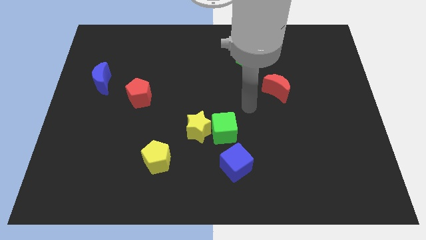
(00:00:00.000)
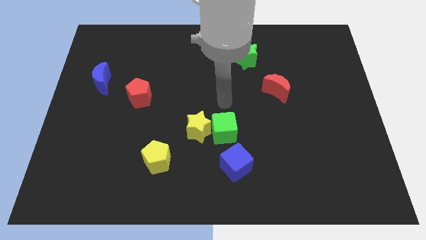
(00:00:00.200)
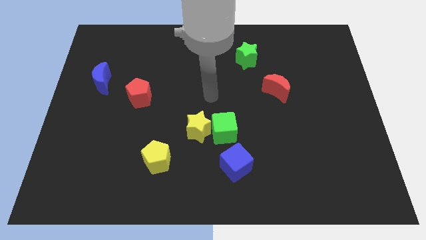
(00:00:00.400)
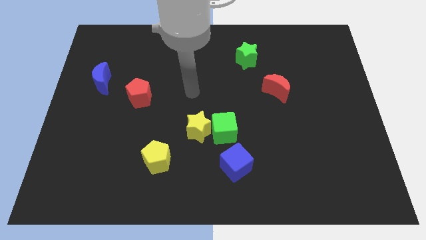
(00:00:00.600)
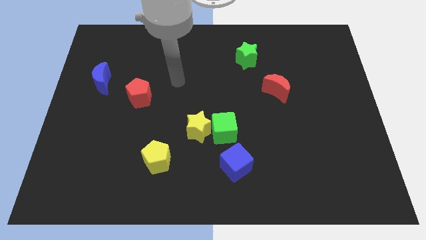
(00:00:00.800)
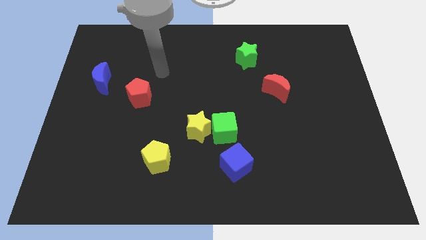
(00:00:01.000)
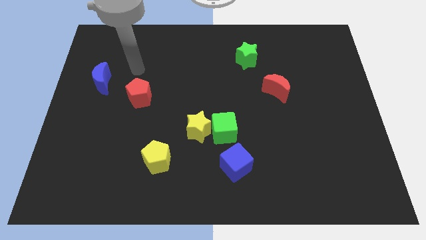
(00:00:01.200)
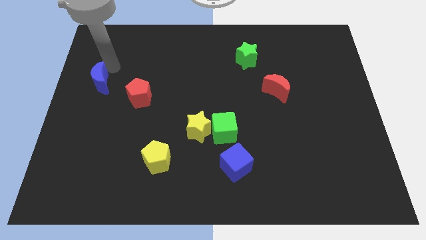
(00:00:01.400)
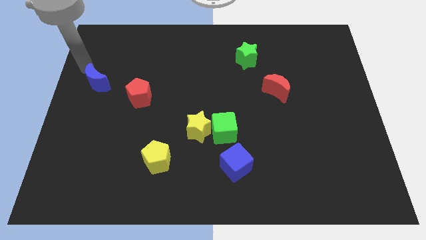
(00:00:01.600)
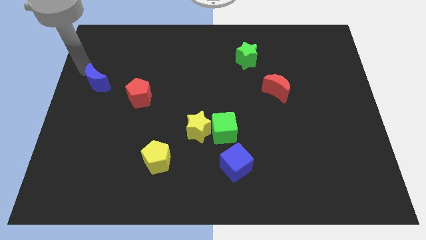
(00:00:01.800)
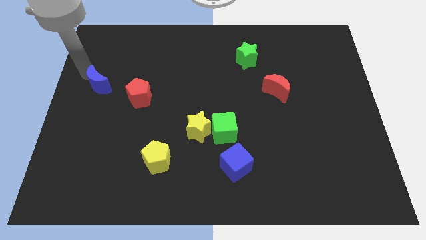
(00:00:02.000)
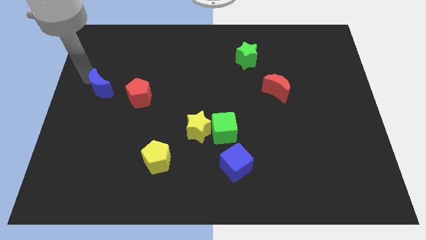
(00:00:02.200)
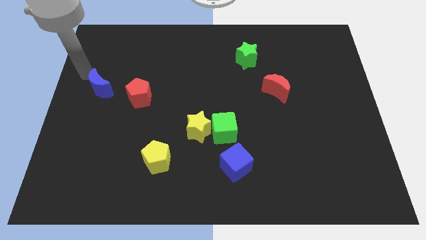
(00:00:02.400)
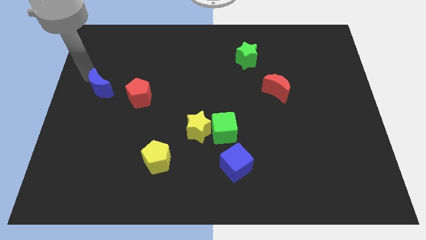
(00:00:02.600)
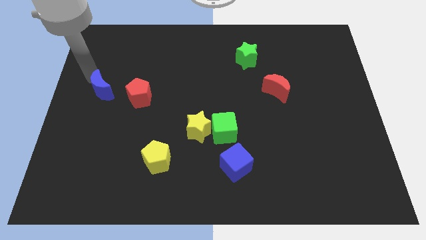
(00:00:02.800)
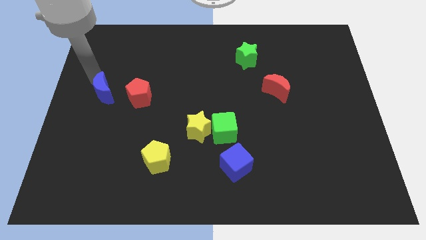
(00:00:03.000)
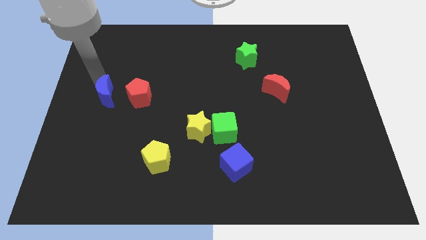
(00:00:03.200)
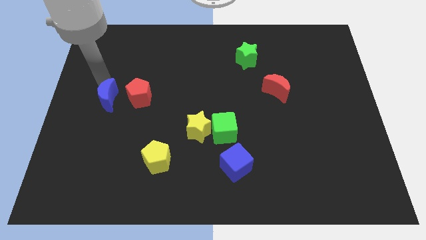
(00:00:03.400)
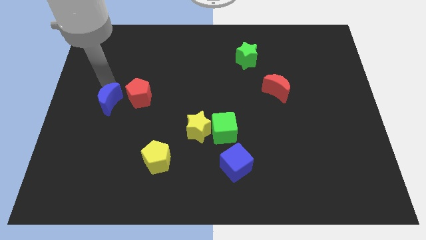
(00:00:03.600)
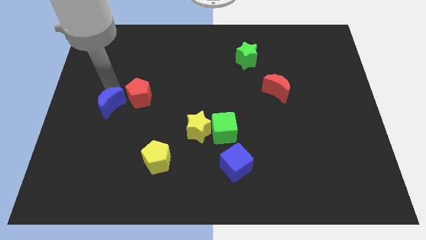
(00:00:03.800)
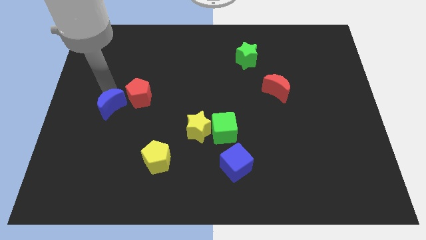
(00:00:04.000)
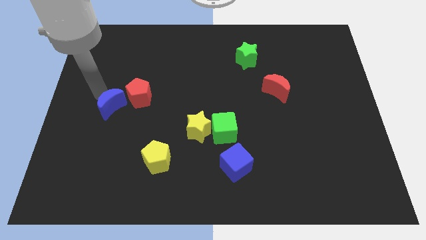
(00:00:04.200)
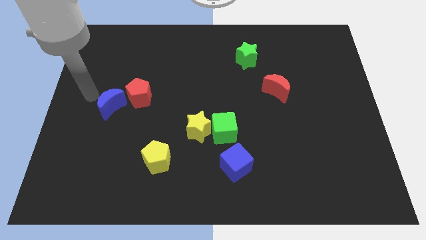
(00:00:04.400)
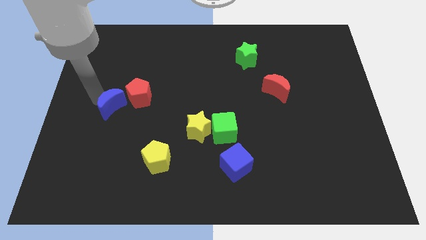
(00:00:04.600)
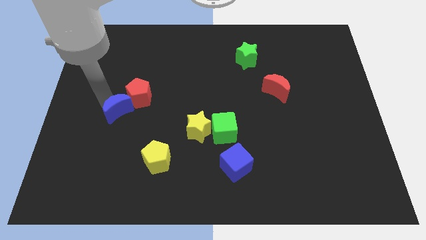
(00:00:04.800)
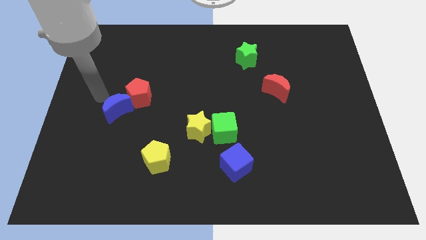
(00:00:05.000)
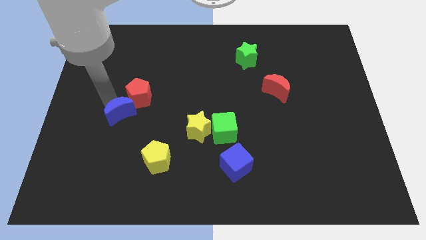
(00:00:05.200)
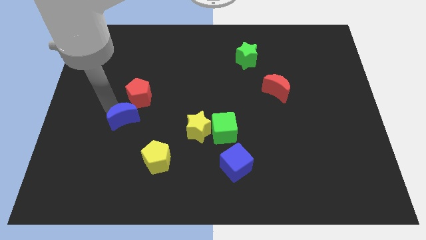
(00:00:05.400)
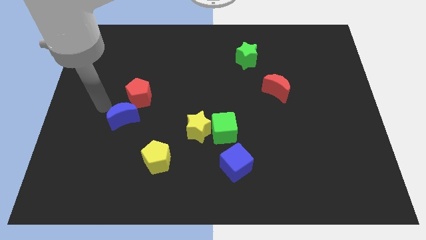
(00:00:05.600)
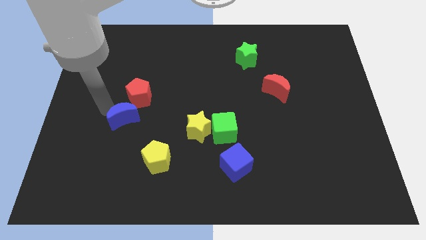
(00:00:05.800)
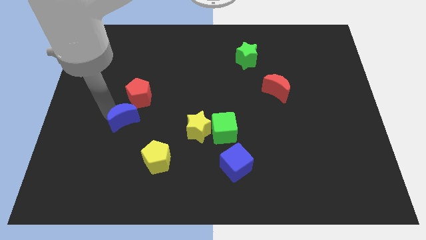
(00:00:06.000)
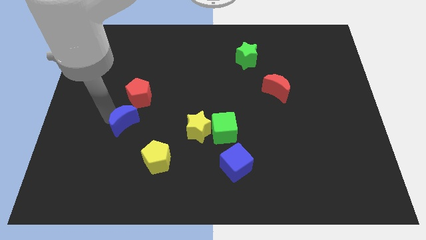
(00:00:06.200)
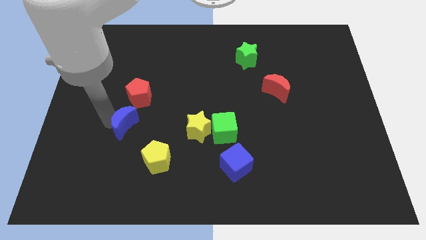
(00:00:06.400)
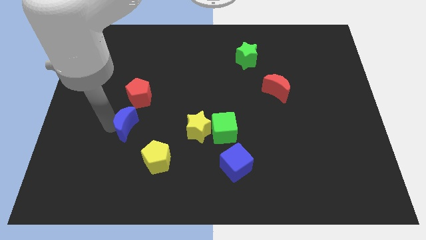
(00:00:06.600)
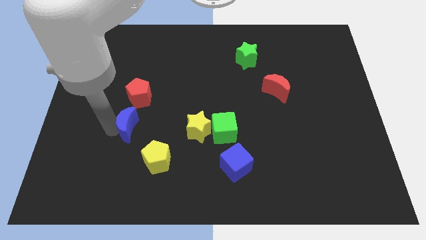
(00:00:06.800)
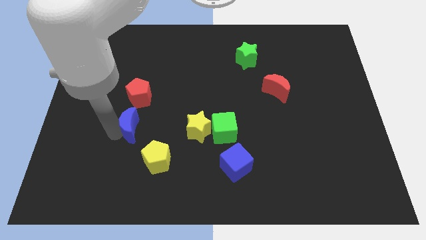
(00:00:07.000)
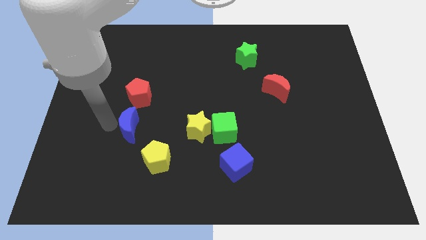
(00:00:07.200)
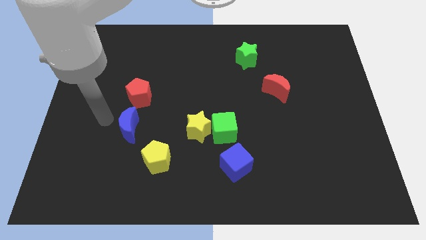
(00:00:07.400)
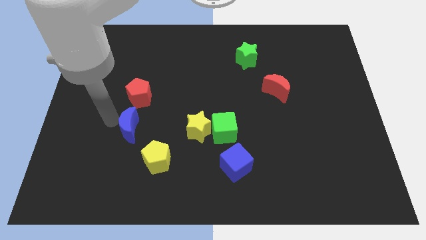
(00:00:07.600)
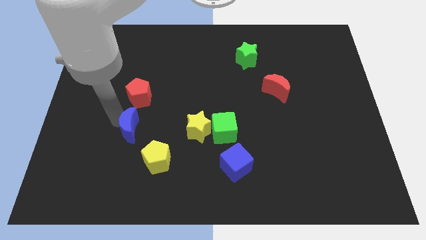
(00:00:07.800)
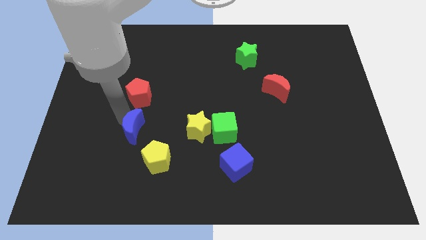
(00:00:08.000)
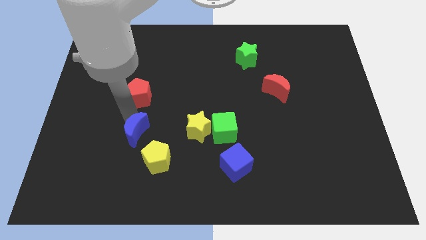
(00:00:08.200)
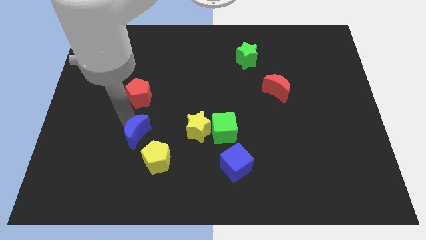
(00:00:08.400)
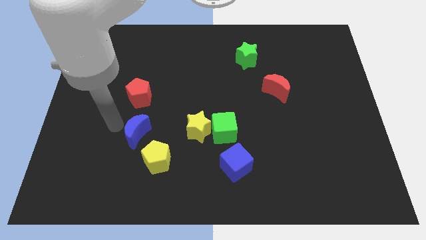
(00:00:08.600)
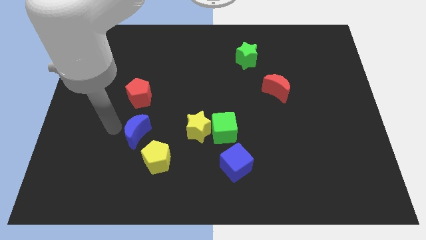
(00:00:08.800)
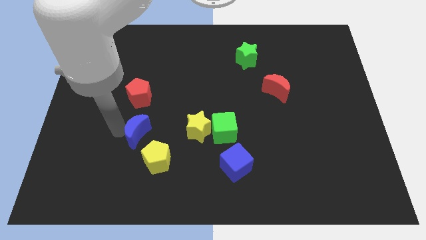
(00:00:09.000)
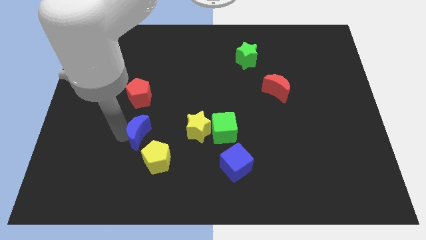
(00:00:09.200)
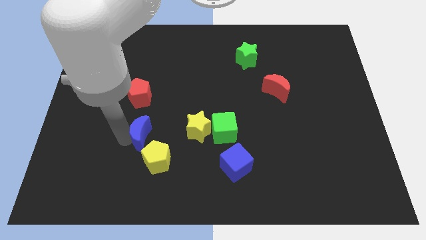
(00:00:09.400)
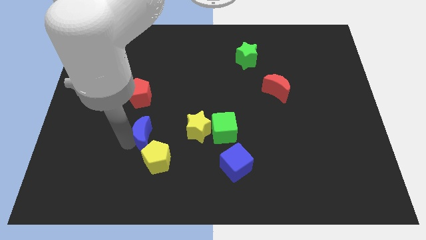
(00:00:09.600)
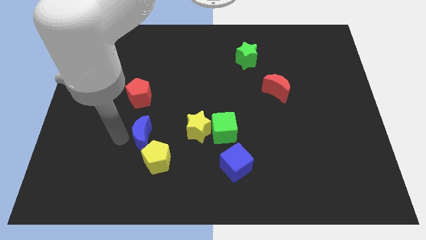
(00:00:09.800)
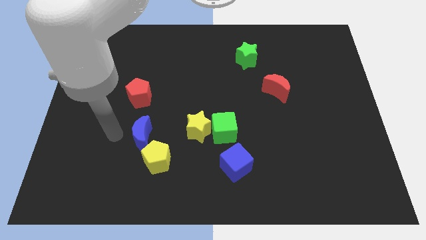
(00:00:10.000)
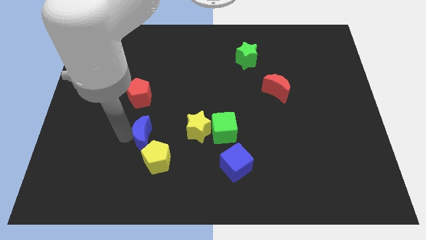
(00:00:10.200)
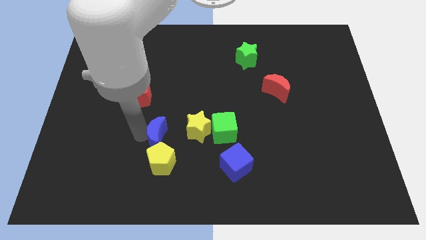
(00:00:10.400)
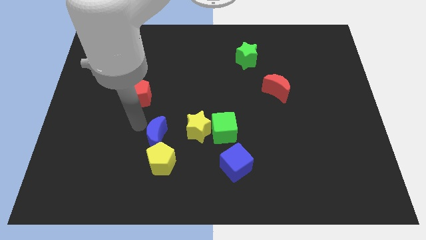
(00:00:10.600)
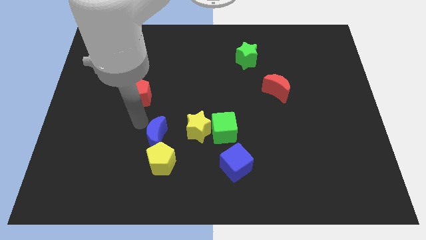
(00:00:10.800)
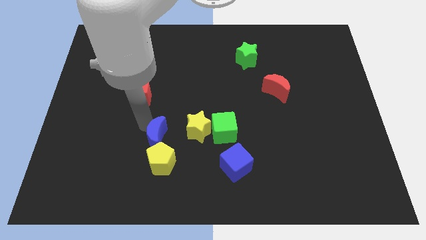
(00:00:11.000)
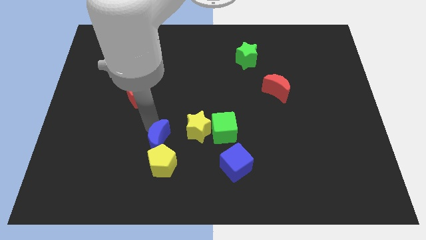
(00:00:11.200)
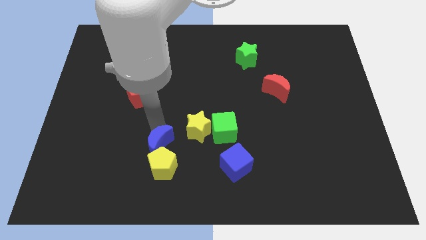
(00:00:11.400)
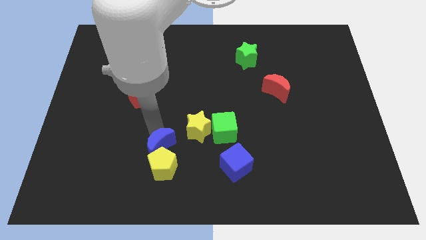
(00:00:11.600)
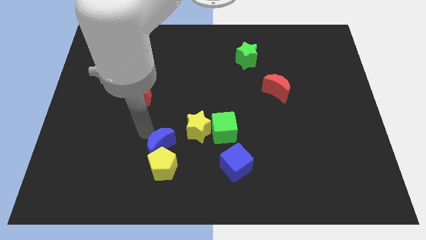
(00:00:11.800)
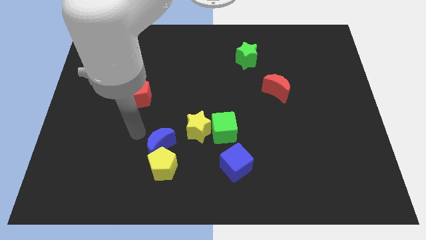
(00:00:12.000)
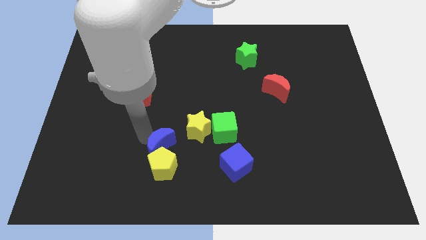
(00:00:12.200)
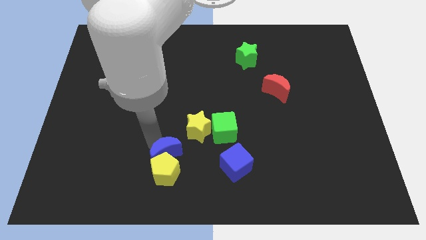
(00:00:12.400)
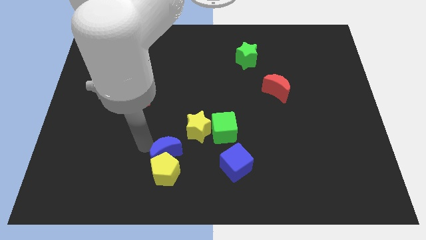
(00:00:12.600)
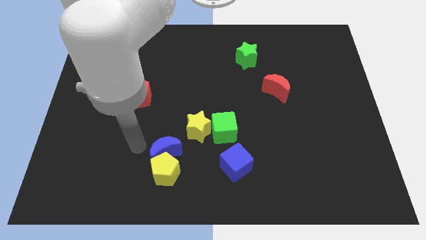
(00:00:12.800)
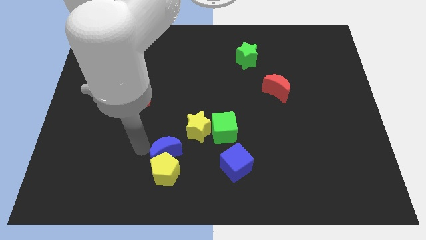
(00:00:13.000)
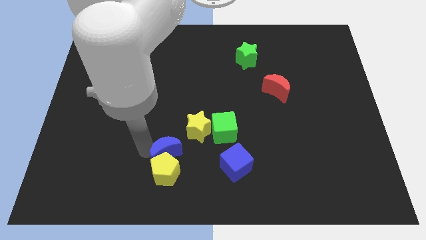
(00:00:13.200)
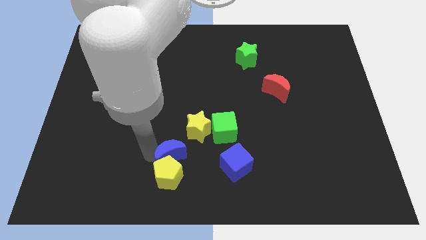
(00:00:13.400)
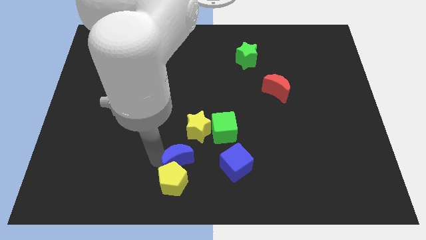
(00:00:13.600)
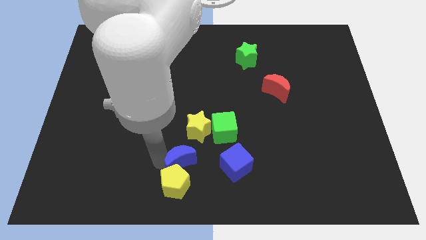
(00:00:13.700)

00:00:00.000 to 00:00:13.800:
push the blue moon to the bottom
